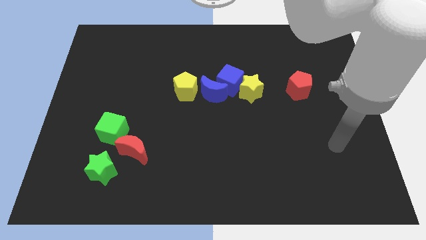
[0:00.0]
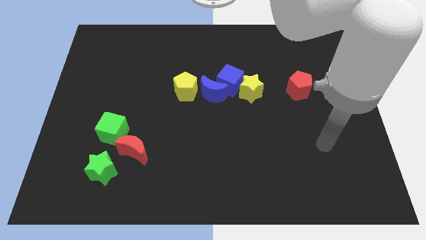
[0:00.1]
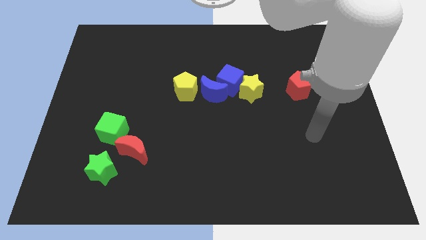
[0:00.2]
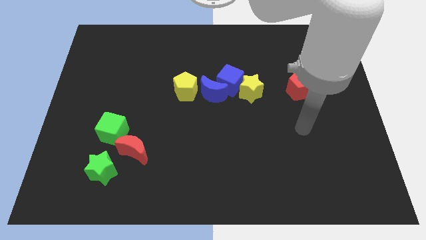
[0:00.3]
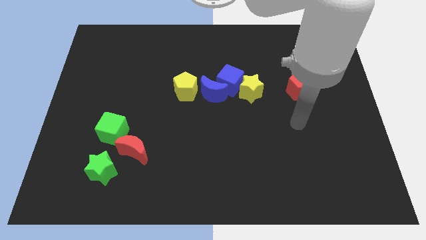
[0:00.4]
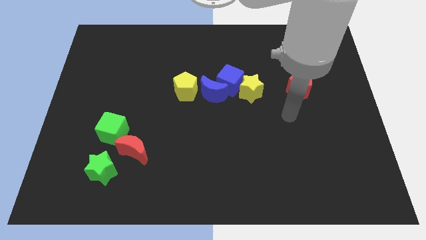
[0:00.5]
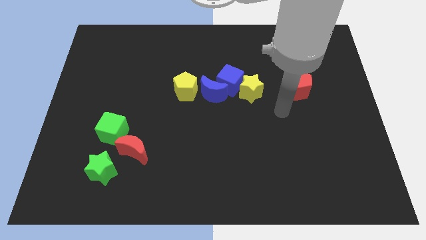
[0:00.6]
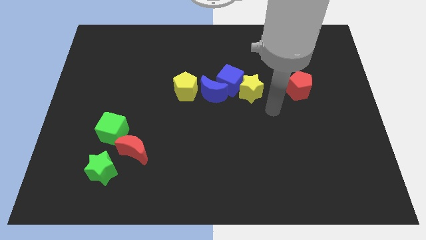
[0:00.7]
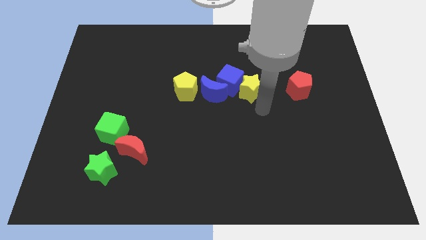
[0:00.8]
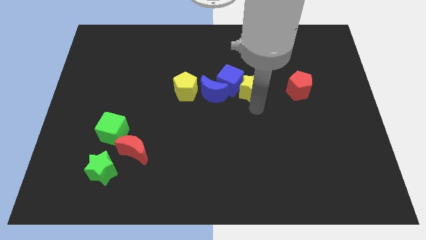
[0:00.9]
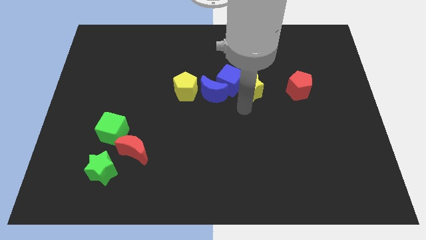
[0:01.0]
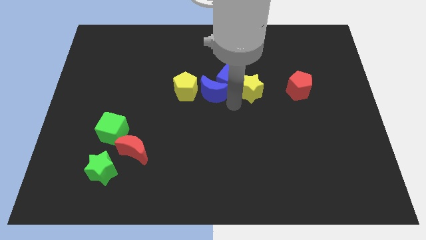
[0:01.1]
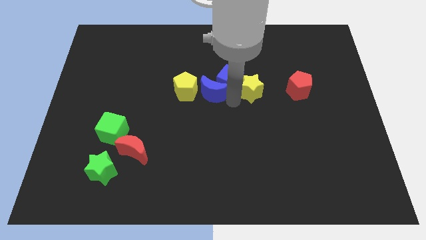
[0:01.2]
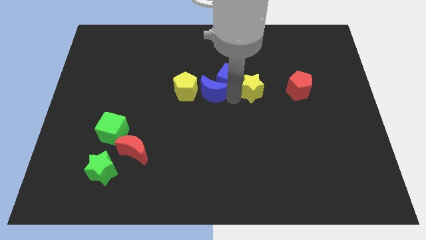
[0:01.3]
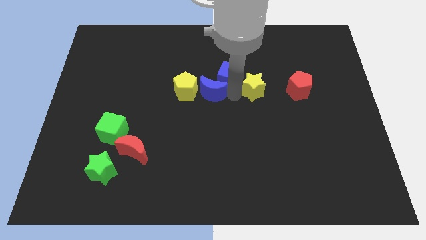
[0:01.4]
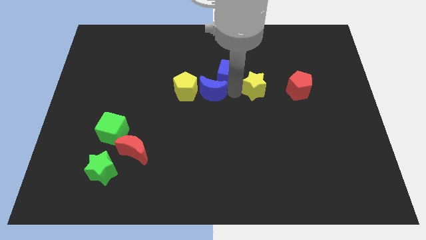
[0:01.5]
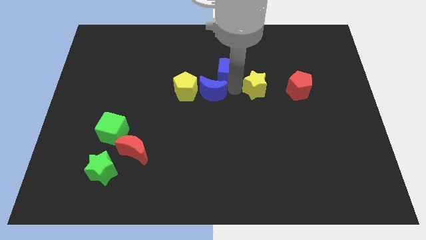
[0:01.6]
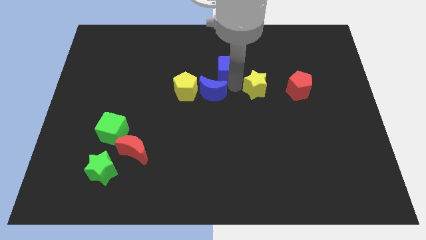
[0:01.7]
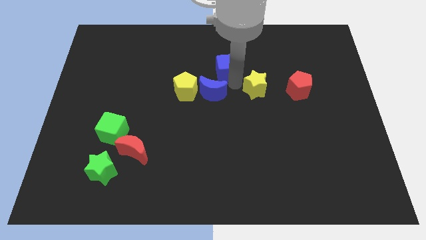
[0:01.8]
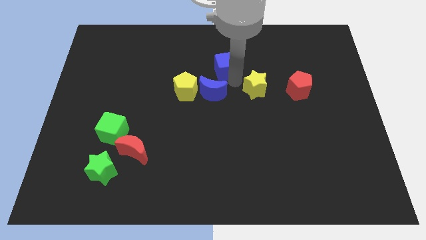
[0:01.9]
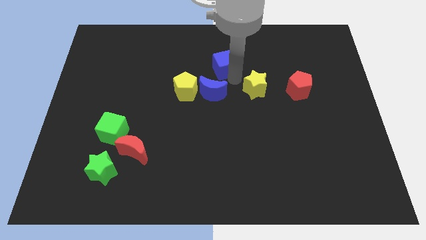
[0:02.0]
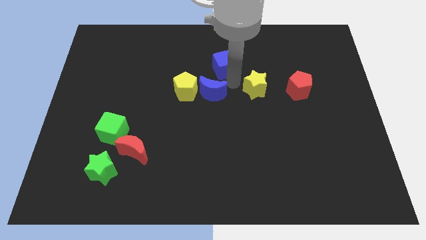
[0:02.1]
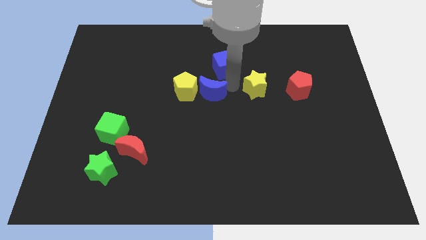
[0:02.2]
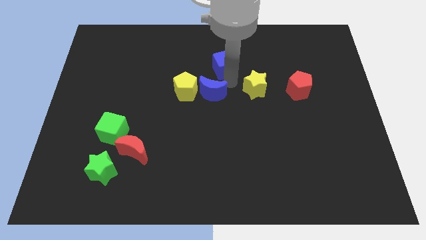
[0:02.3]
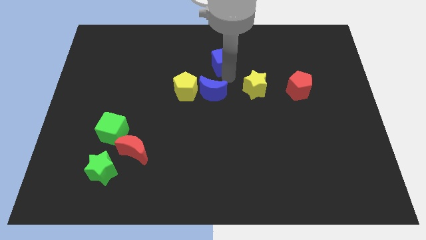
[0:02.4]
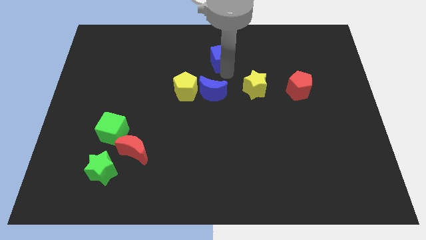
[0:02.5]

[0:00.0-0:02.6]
separate the blue cube from the yellow star and blue moon

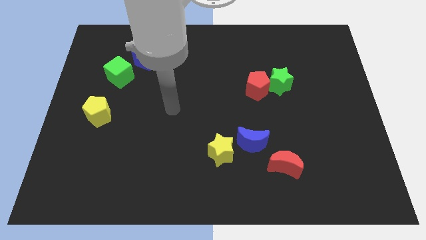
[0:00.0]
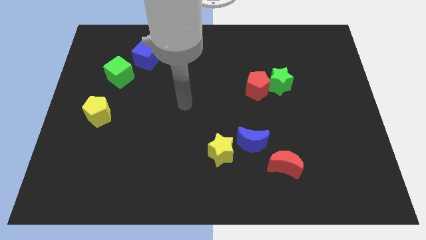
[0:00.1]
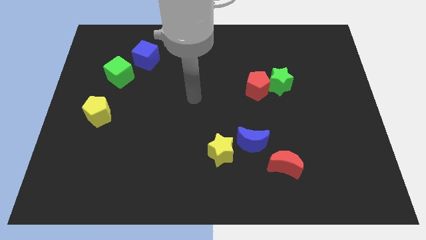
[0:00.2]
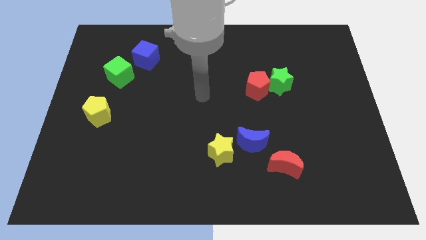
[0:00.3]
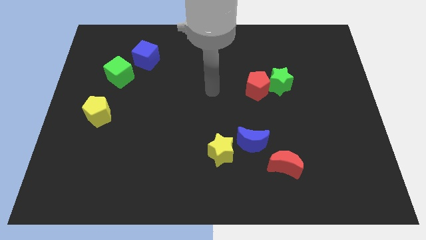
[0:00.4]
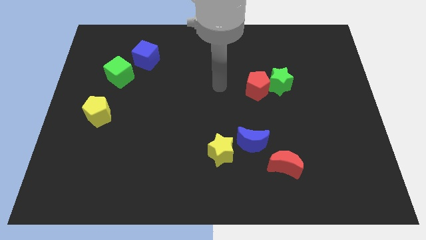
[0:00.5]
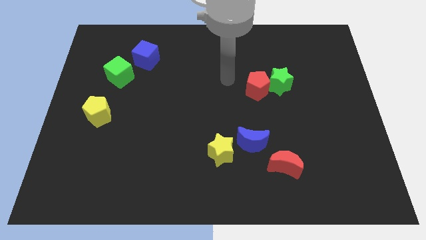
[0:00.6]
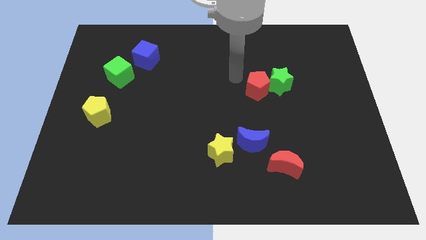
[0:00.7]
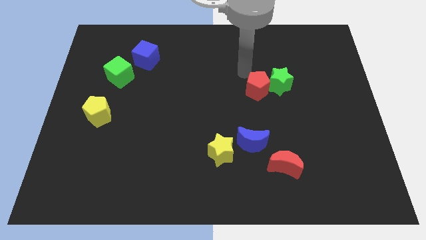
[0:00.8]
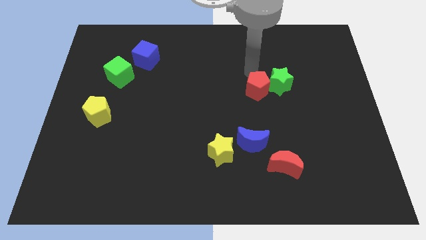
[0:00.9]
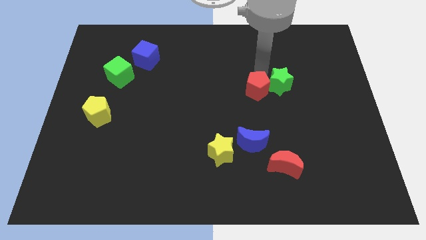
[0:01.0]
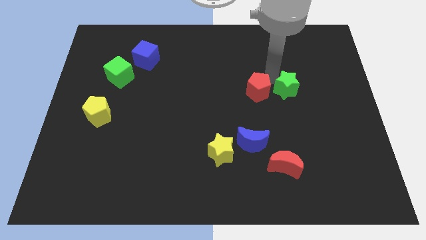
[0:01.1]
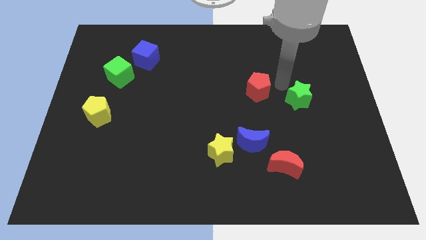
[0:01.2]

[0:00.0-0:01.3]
move the red pentagon away from the green star

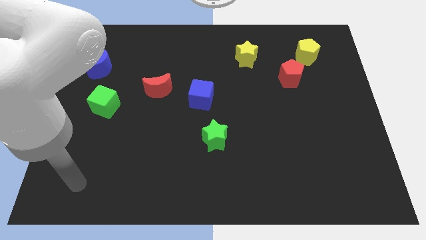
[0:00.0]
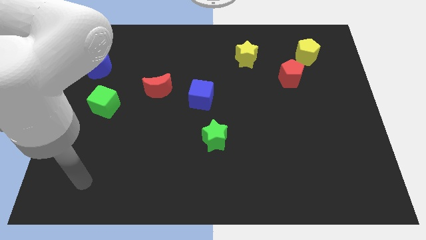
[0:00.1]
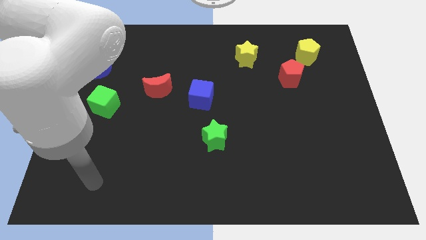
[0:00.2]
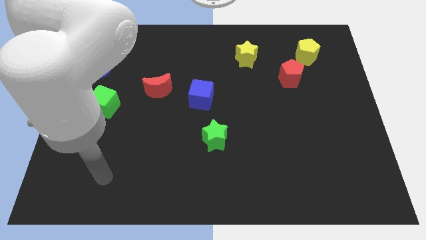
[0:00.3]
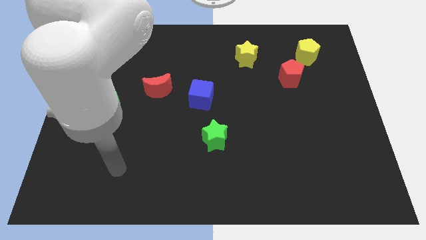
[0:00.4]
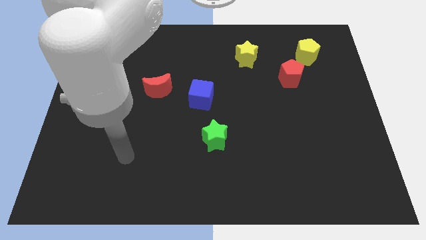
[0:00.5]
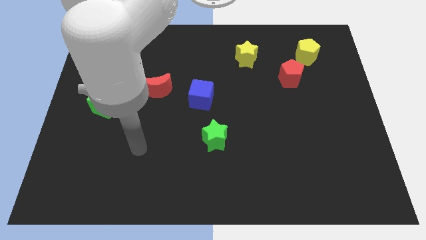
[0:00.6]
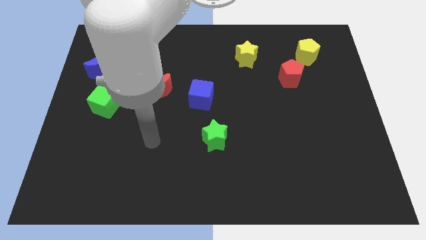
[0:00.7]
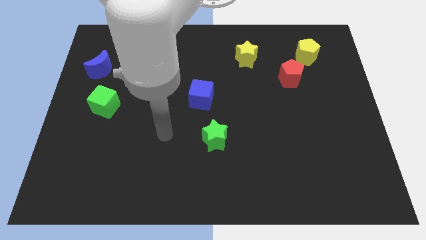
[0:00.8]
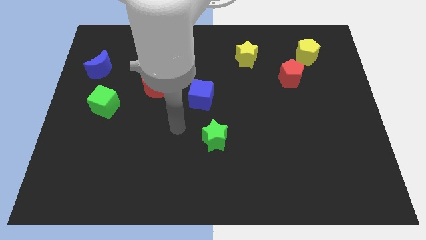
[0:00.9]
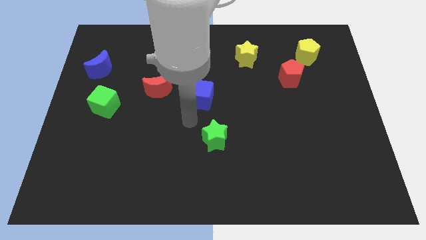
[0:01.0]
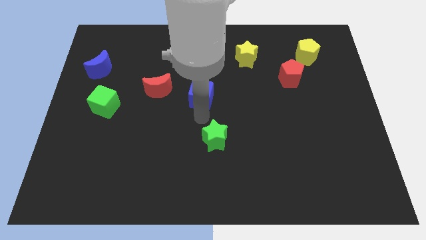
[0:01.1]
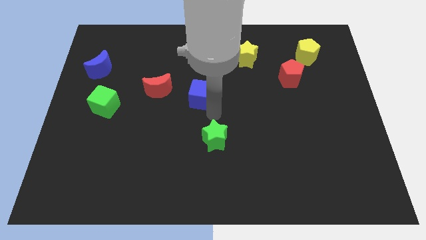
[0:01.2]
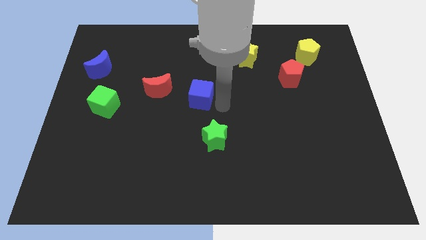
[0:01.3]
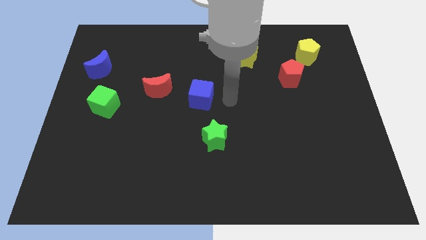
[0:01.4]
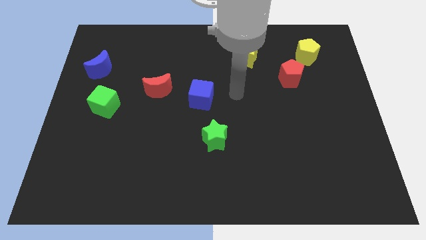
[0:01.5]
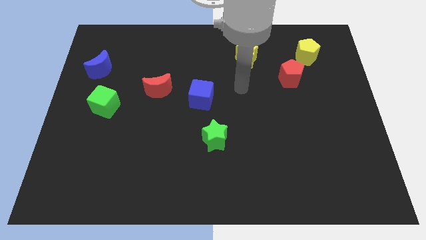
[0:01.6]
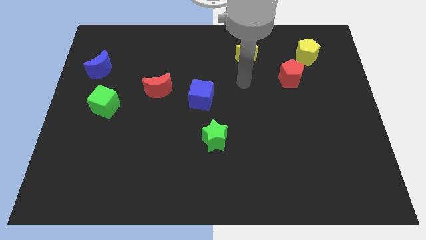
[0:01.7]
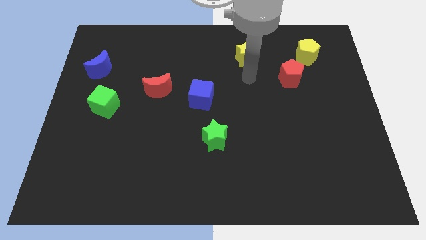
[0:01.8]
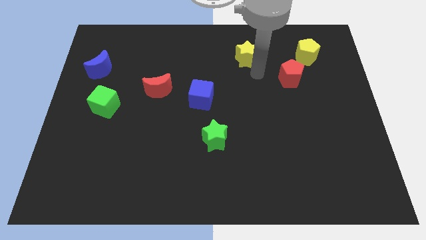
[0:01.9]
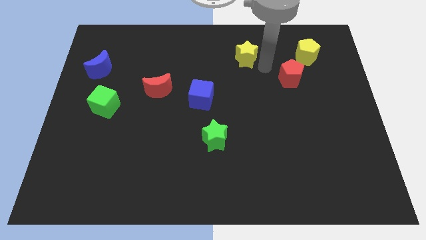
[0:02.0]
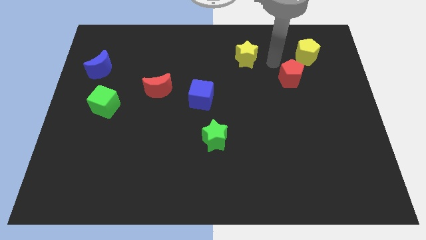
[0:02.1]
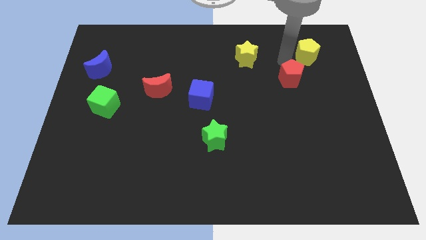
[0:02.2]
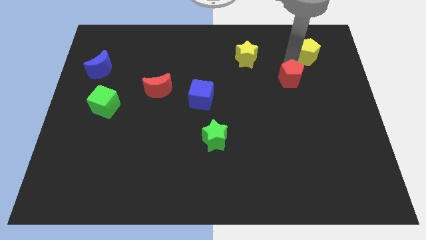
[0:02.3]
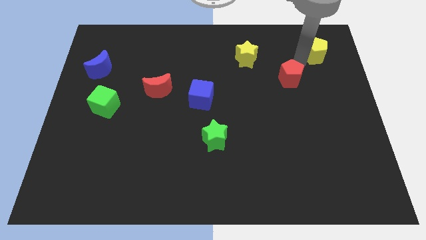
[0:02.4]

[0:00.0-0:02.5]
pull the red pentagon apart from the yellow pentagon

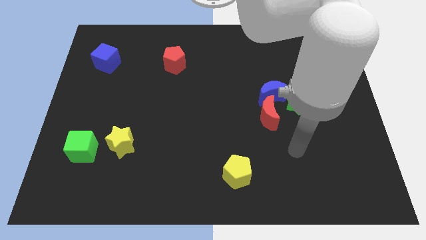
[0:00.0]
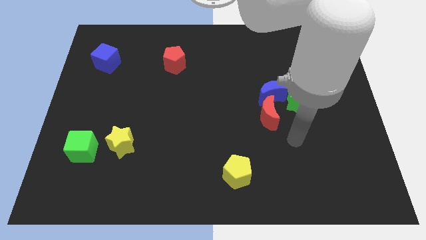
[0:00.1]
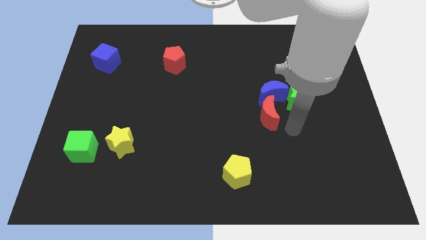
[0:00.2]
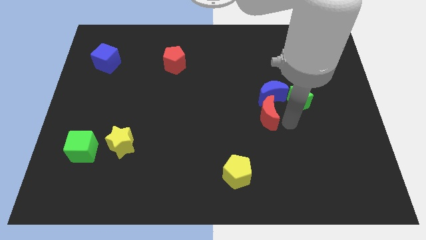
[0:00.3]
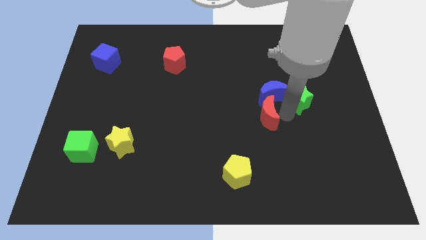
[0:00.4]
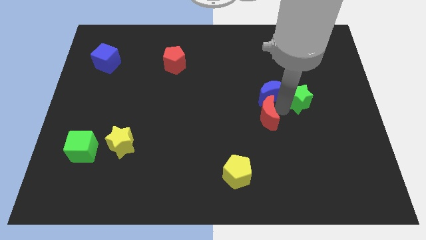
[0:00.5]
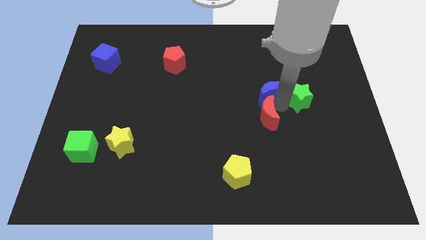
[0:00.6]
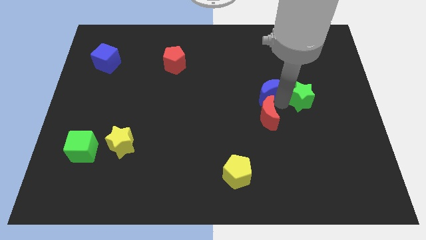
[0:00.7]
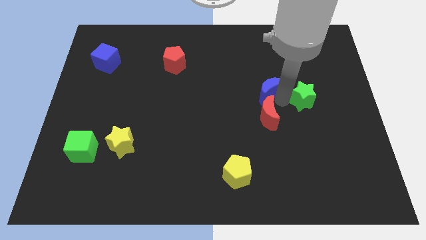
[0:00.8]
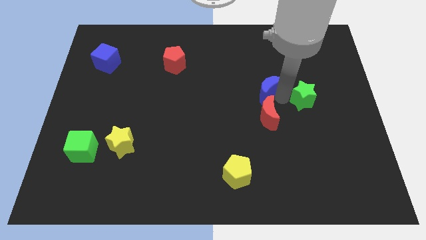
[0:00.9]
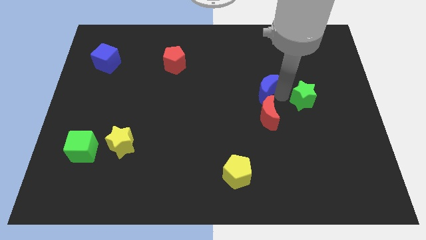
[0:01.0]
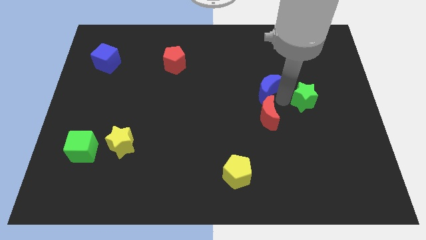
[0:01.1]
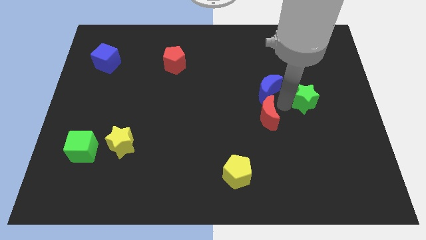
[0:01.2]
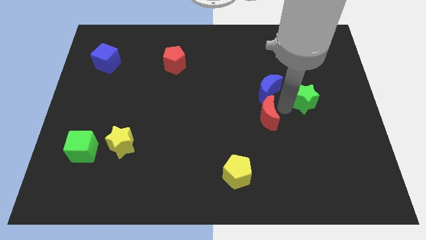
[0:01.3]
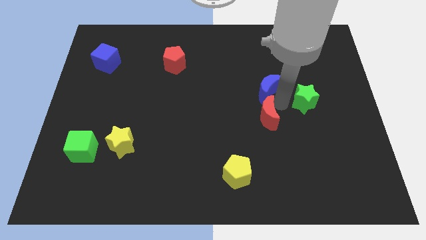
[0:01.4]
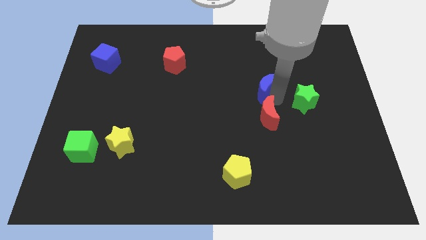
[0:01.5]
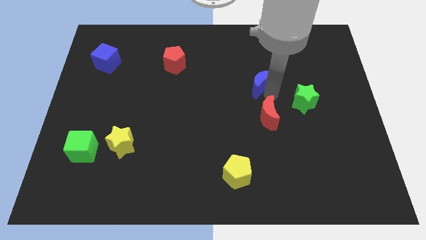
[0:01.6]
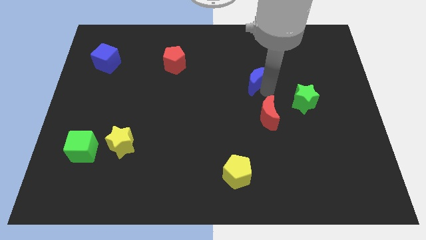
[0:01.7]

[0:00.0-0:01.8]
separate the blue moon from the green star and red moon

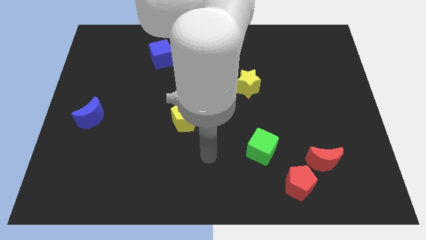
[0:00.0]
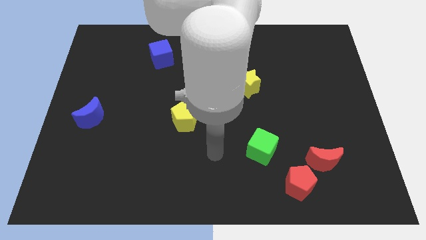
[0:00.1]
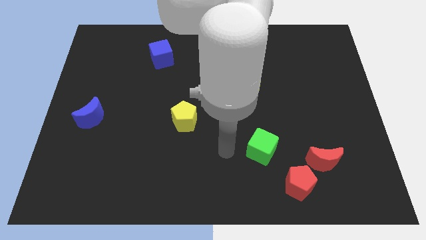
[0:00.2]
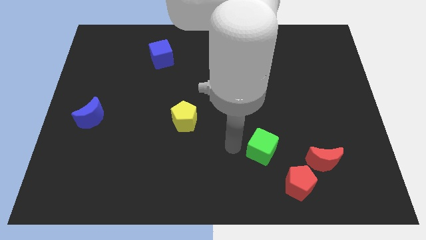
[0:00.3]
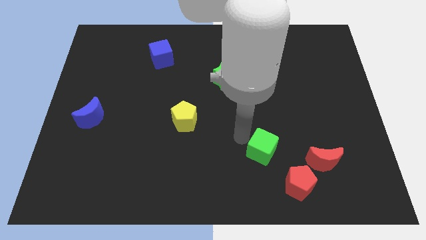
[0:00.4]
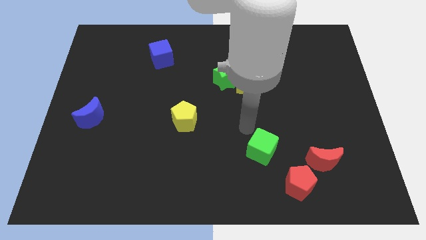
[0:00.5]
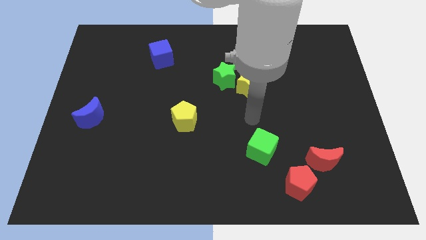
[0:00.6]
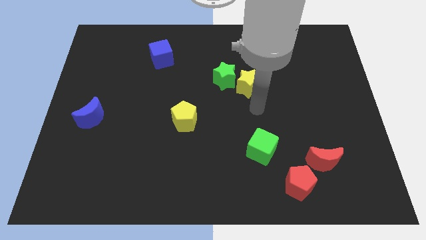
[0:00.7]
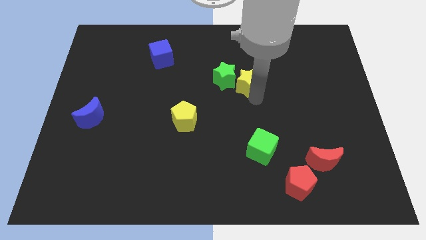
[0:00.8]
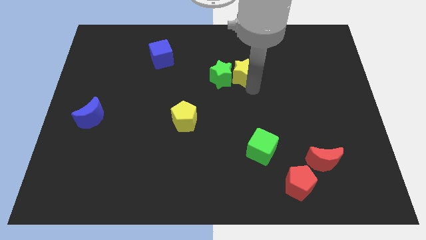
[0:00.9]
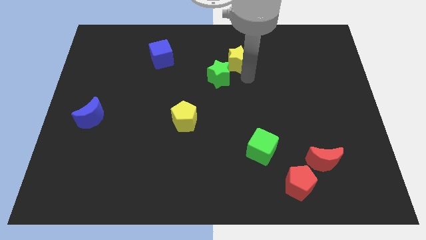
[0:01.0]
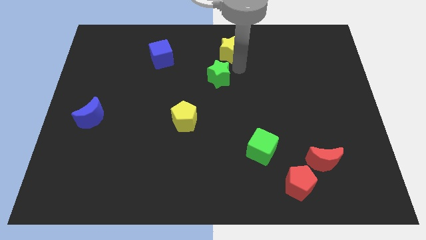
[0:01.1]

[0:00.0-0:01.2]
move the green star away from the yellow star
